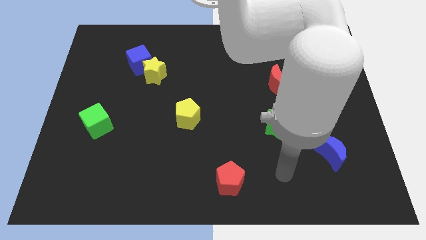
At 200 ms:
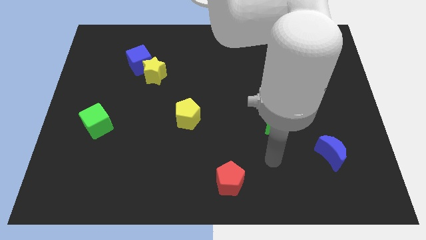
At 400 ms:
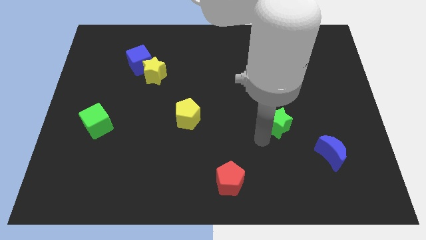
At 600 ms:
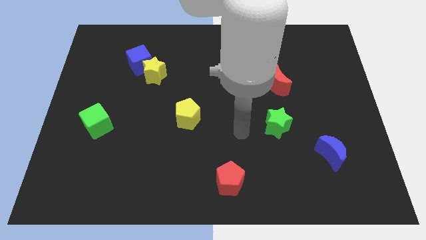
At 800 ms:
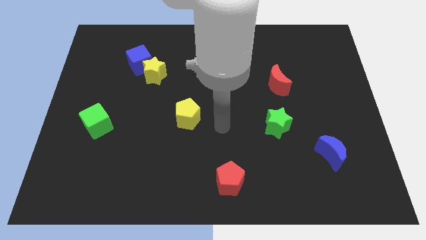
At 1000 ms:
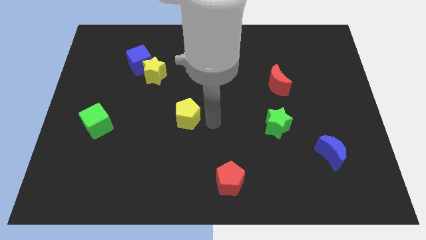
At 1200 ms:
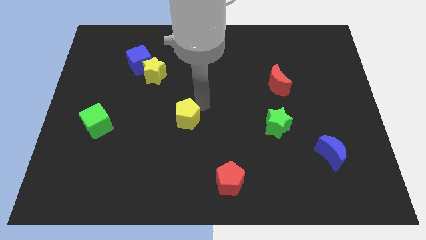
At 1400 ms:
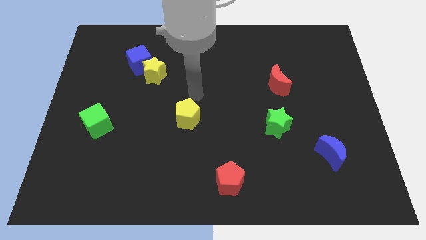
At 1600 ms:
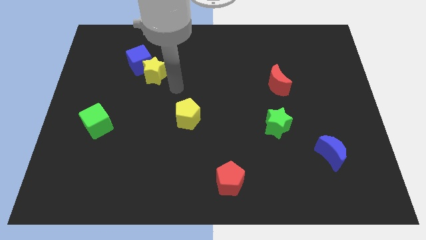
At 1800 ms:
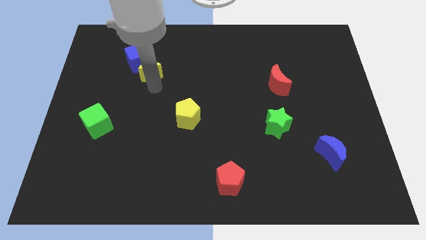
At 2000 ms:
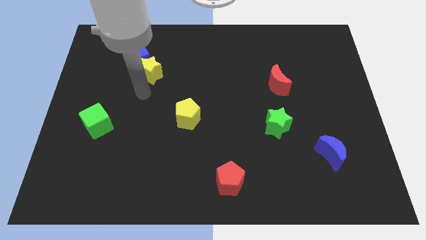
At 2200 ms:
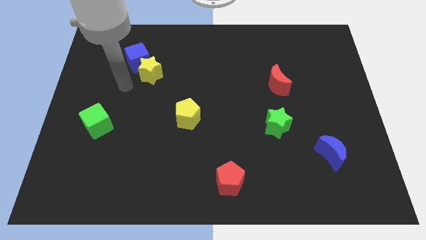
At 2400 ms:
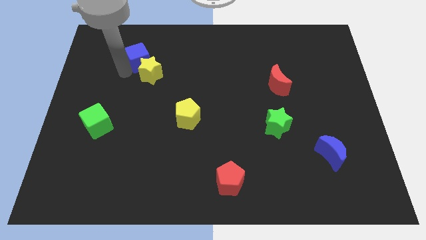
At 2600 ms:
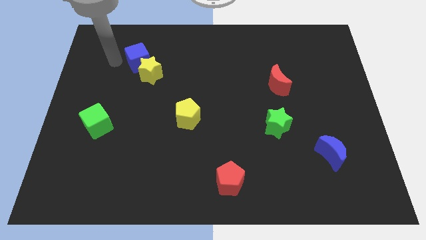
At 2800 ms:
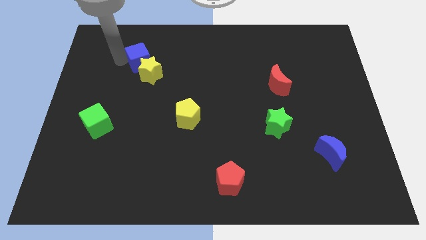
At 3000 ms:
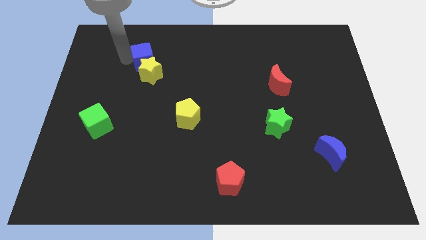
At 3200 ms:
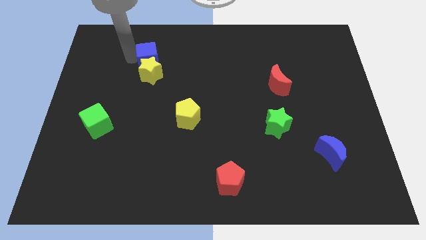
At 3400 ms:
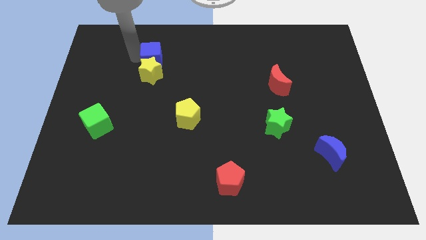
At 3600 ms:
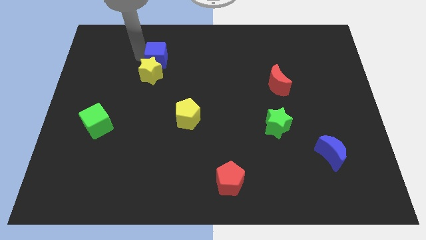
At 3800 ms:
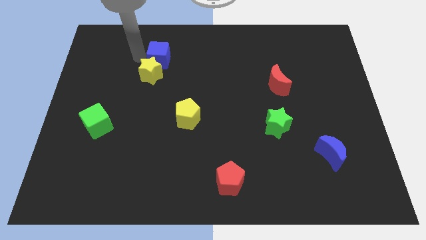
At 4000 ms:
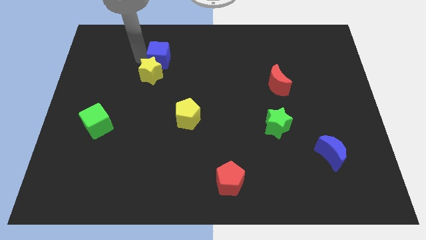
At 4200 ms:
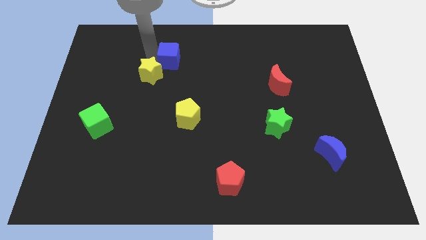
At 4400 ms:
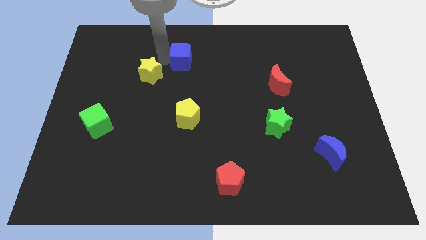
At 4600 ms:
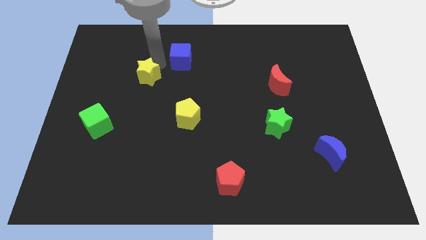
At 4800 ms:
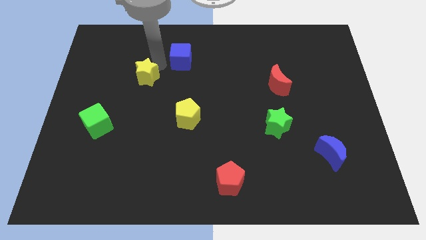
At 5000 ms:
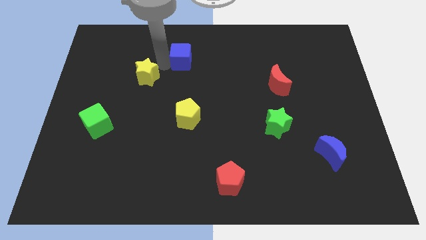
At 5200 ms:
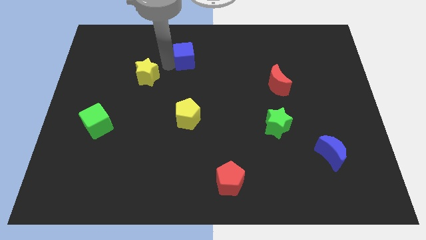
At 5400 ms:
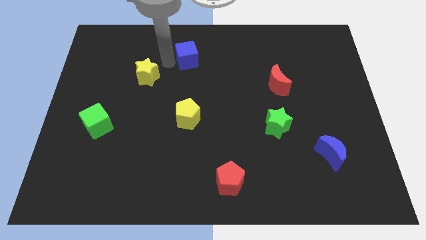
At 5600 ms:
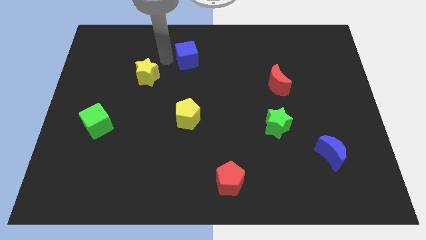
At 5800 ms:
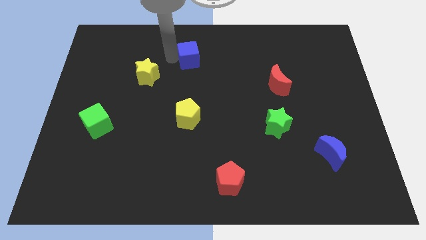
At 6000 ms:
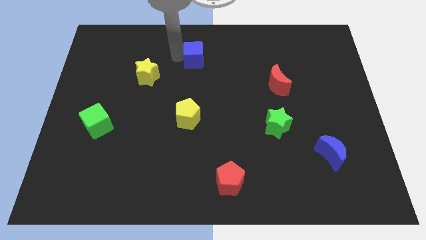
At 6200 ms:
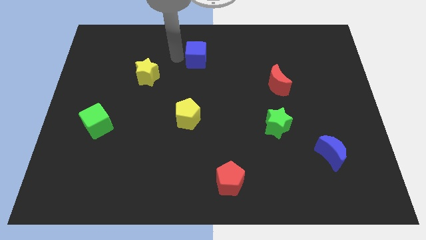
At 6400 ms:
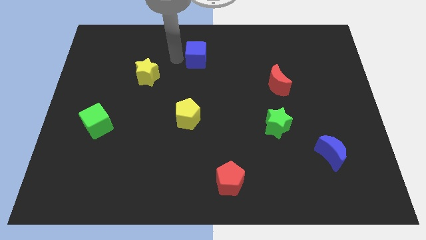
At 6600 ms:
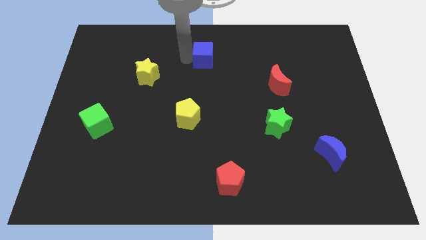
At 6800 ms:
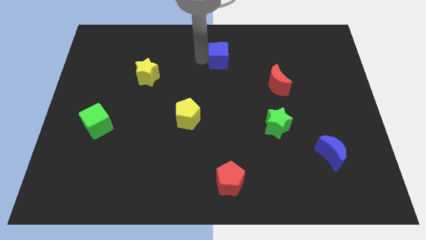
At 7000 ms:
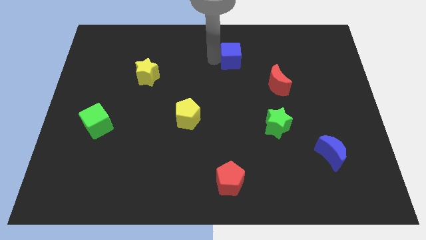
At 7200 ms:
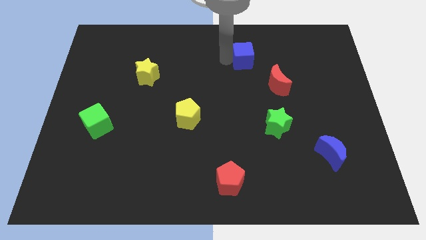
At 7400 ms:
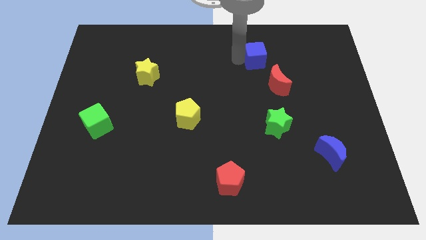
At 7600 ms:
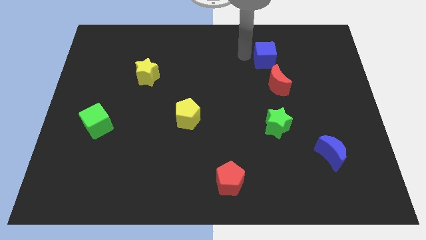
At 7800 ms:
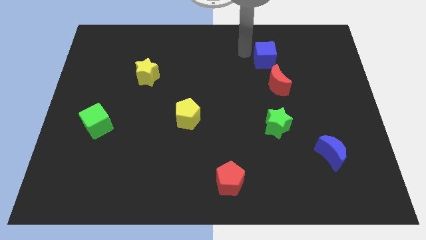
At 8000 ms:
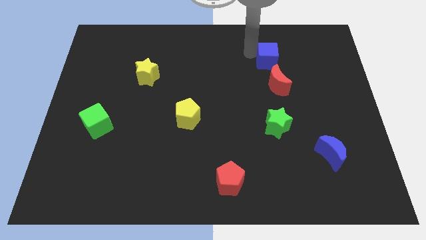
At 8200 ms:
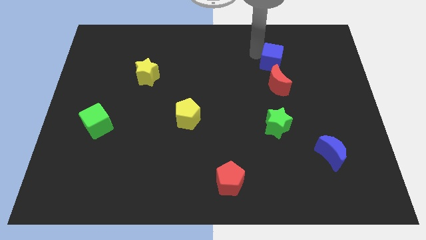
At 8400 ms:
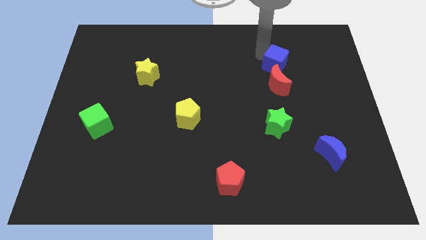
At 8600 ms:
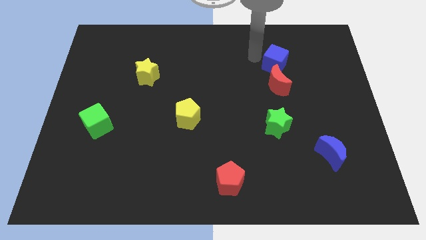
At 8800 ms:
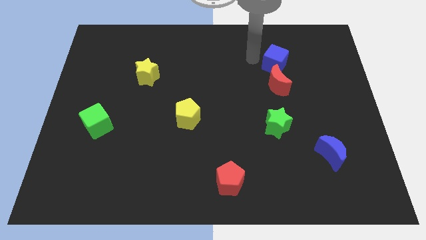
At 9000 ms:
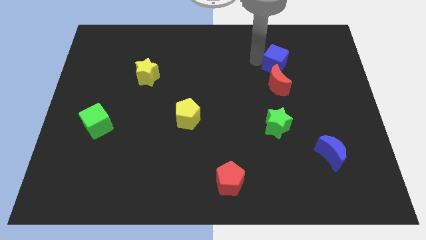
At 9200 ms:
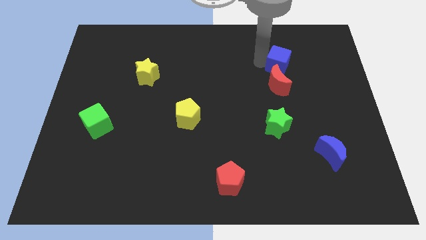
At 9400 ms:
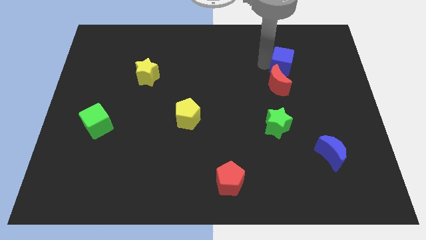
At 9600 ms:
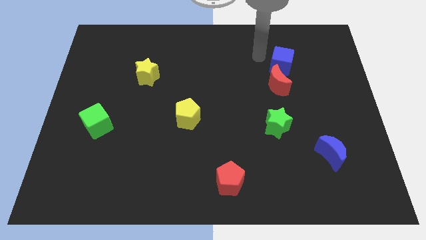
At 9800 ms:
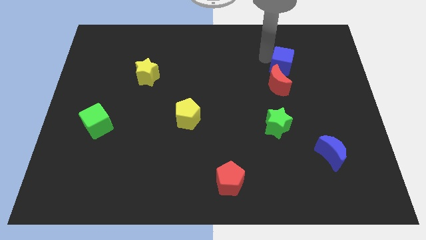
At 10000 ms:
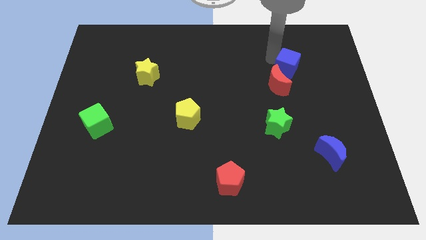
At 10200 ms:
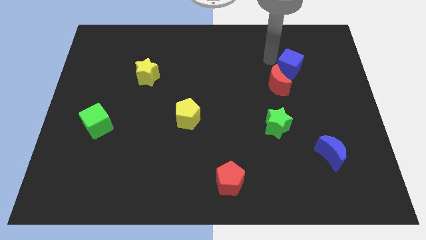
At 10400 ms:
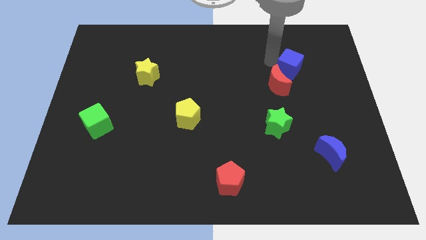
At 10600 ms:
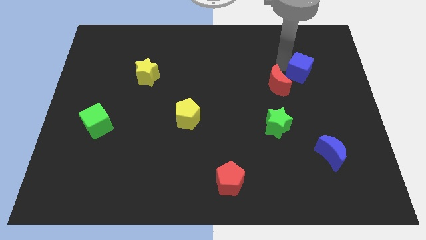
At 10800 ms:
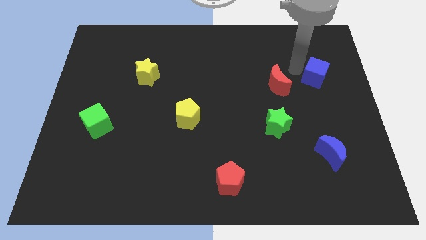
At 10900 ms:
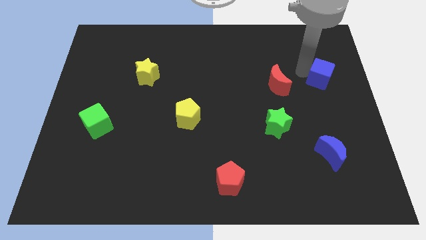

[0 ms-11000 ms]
slide the blue cube to the right side
